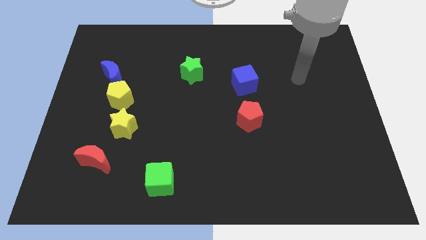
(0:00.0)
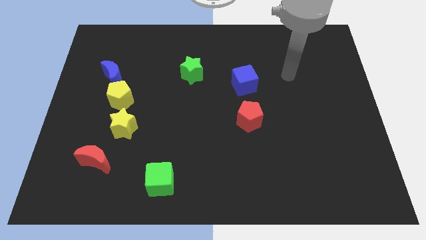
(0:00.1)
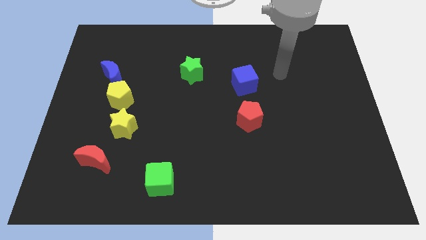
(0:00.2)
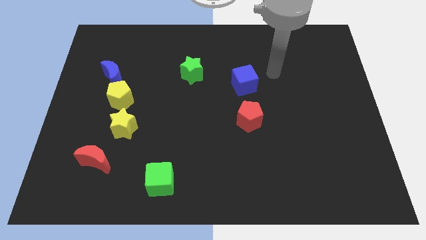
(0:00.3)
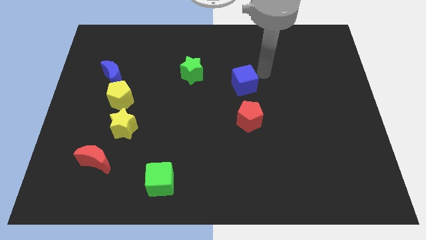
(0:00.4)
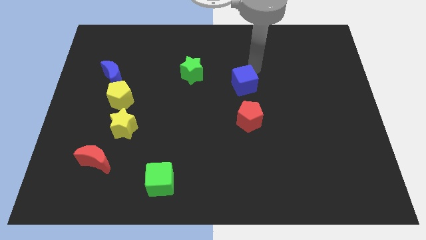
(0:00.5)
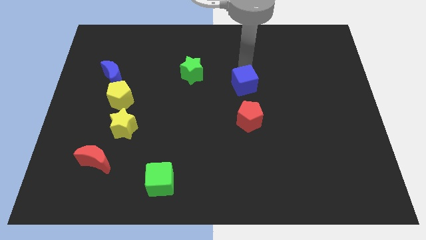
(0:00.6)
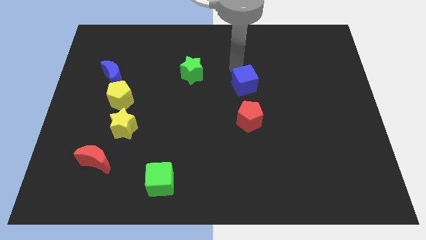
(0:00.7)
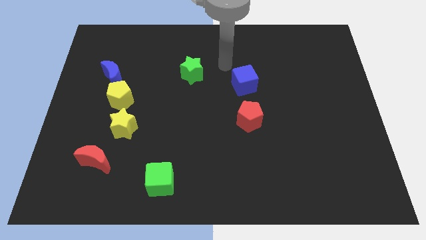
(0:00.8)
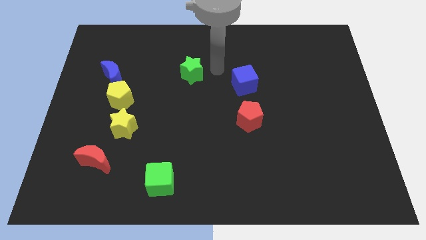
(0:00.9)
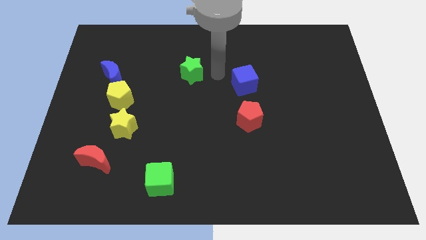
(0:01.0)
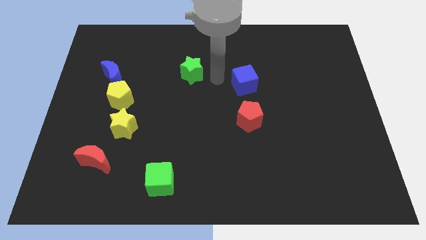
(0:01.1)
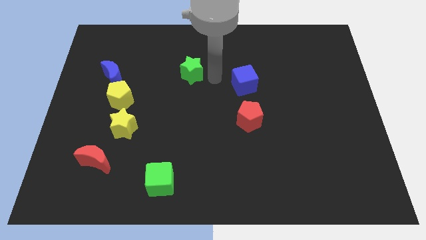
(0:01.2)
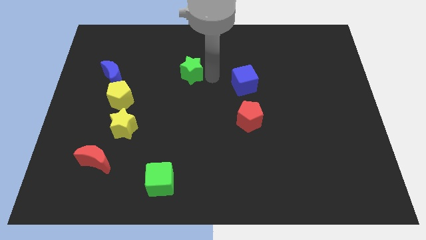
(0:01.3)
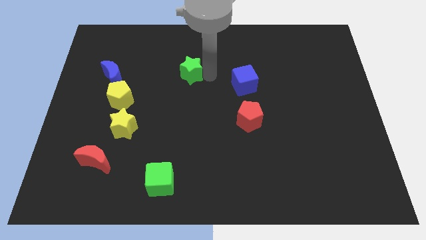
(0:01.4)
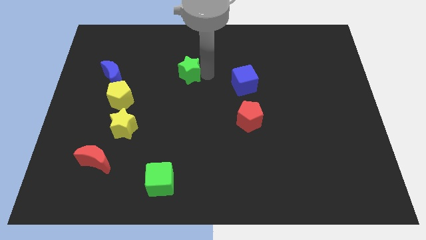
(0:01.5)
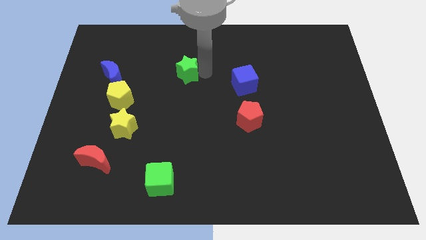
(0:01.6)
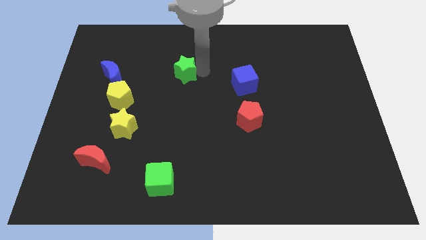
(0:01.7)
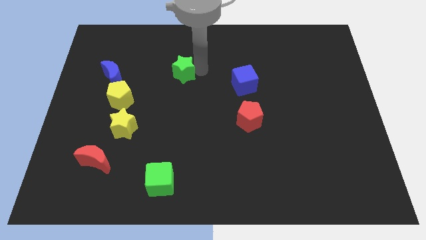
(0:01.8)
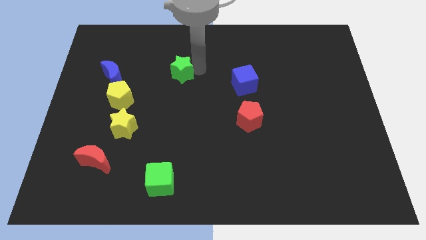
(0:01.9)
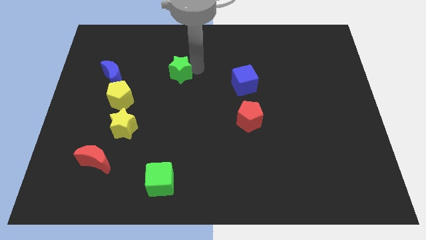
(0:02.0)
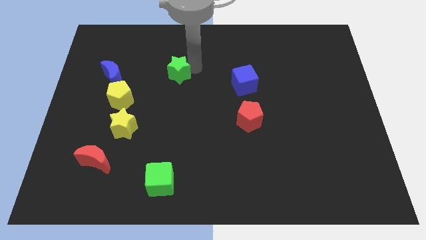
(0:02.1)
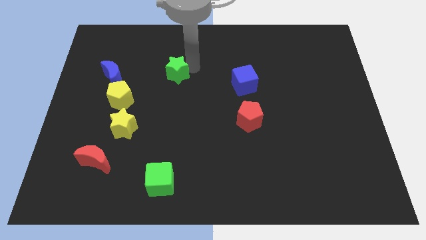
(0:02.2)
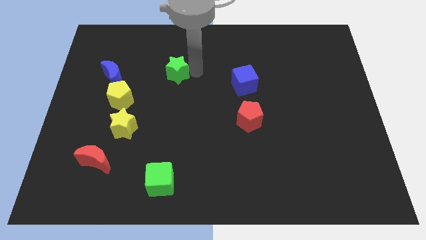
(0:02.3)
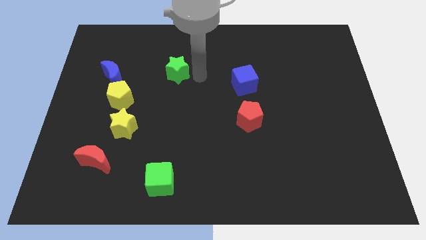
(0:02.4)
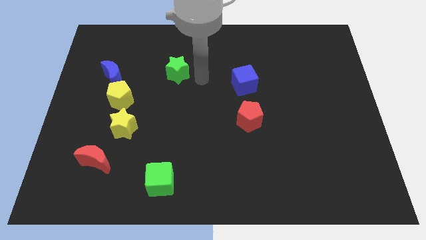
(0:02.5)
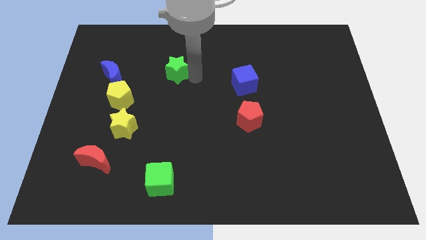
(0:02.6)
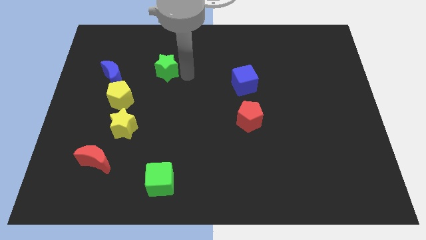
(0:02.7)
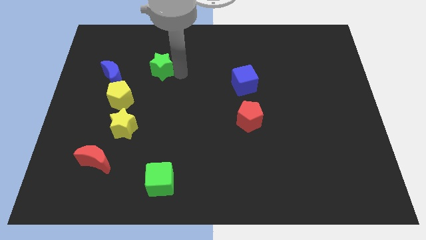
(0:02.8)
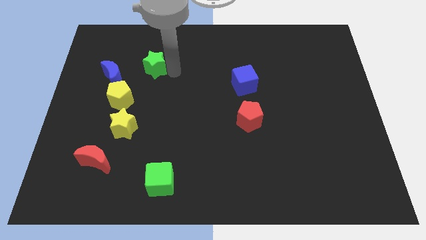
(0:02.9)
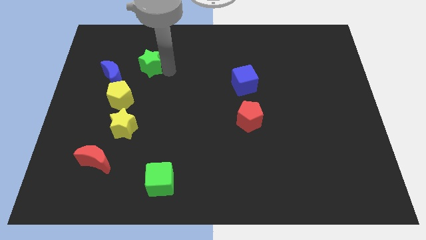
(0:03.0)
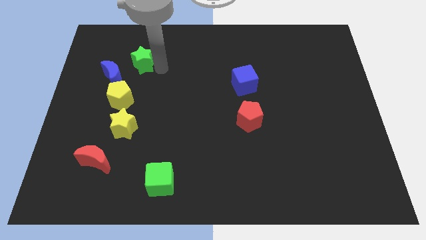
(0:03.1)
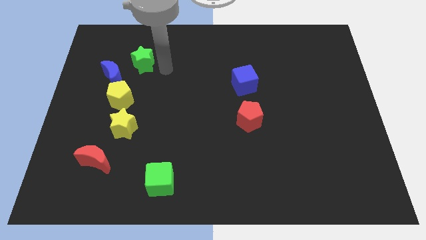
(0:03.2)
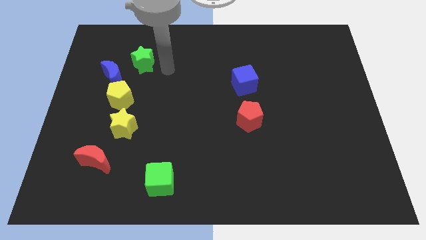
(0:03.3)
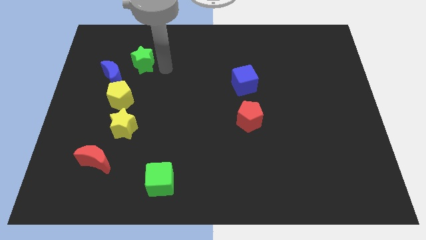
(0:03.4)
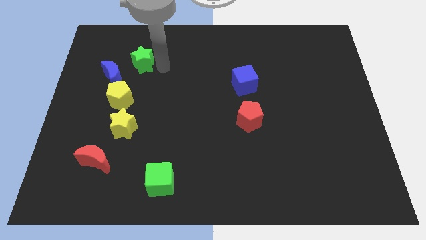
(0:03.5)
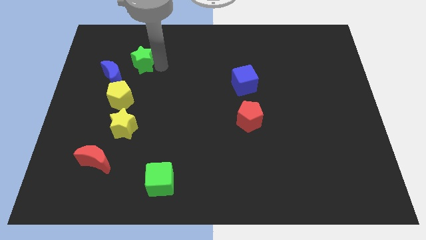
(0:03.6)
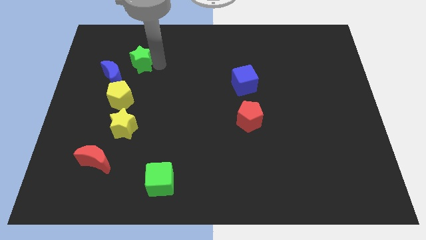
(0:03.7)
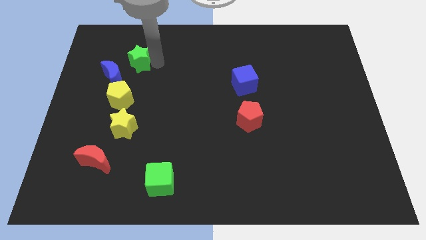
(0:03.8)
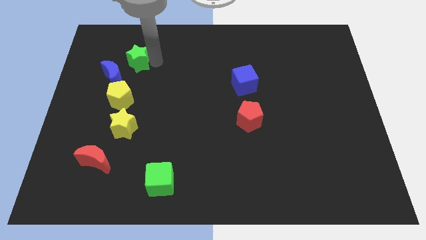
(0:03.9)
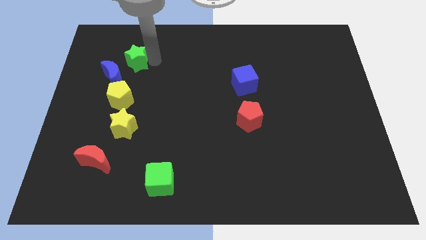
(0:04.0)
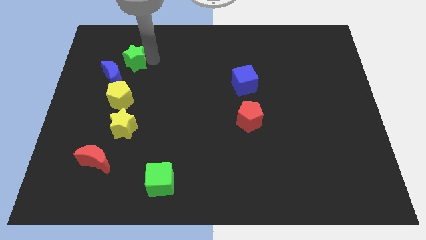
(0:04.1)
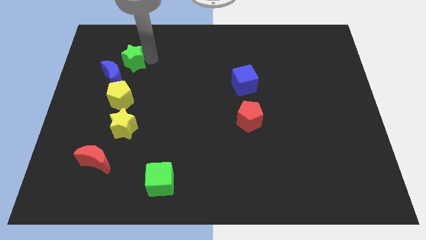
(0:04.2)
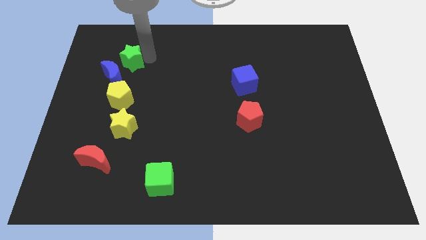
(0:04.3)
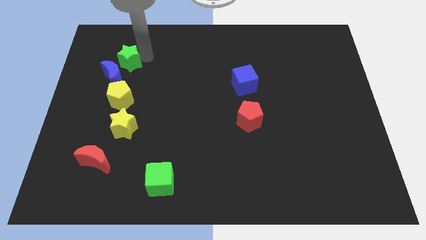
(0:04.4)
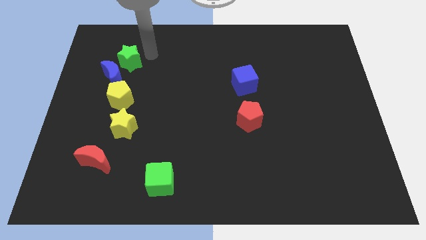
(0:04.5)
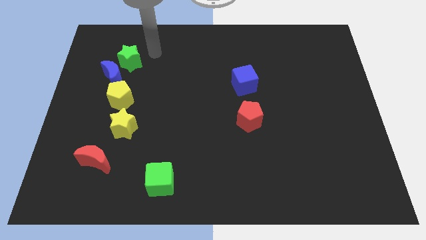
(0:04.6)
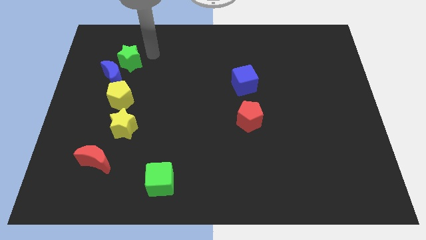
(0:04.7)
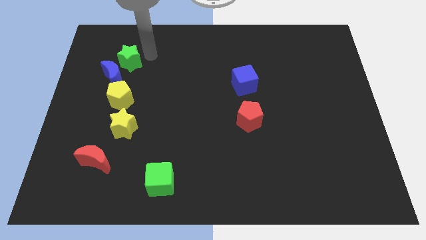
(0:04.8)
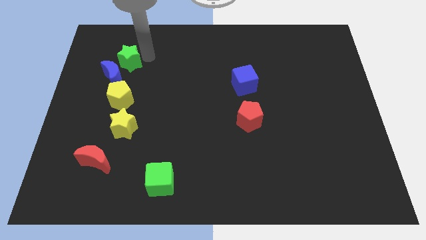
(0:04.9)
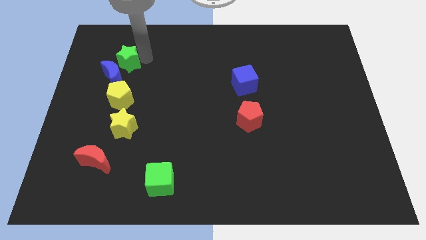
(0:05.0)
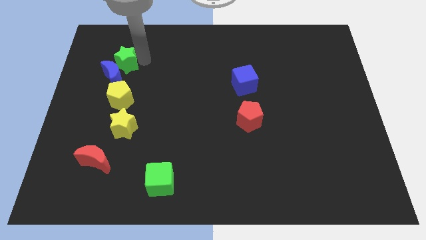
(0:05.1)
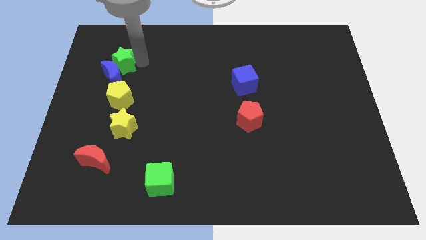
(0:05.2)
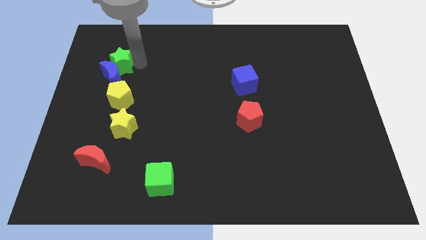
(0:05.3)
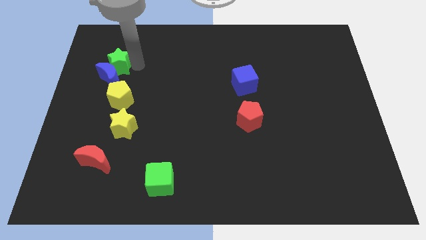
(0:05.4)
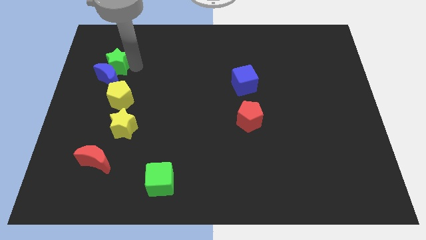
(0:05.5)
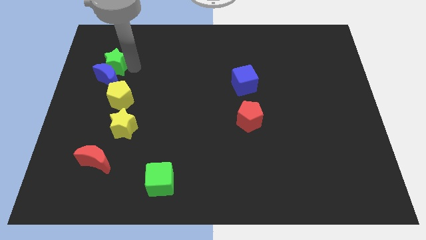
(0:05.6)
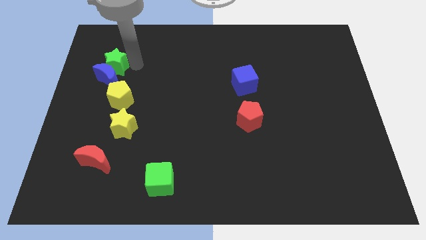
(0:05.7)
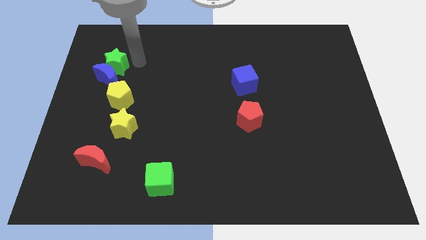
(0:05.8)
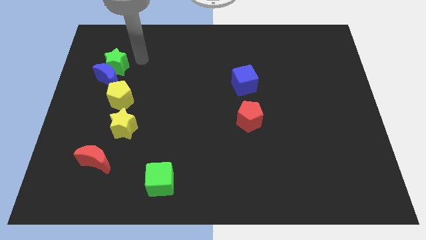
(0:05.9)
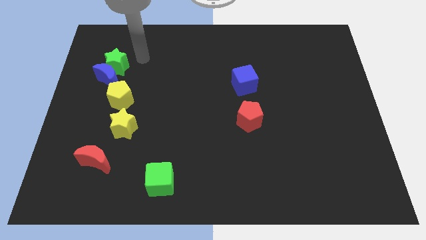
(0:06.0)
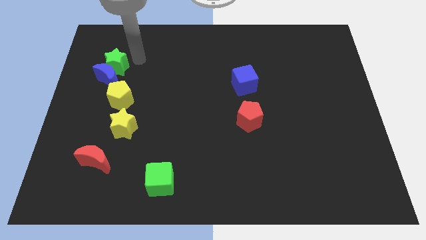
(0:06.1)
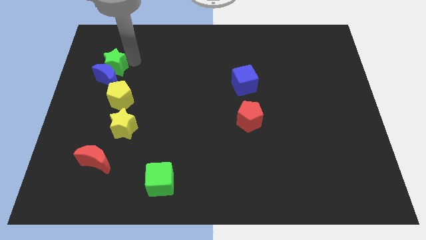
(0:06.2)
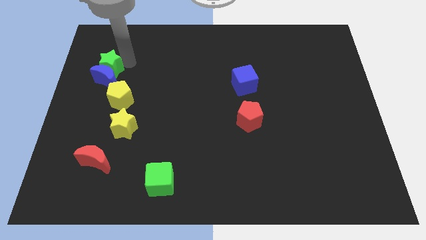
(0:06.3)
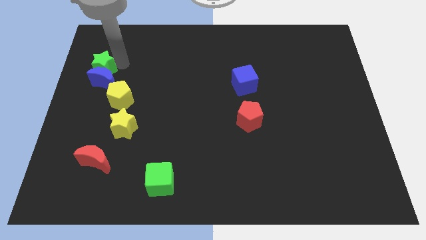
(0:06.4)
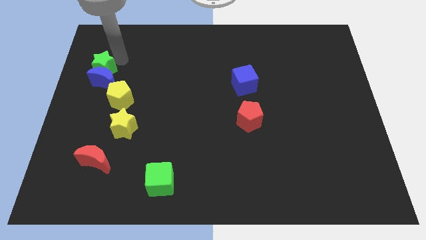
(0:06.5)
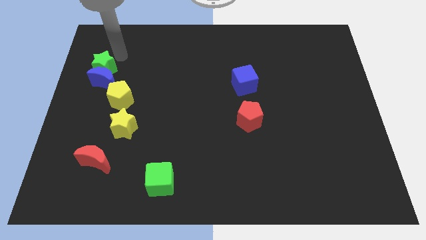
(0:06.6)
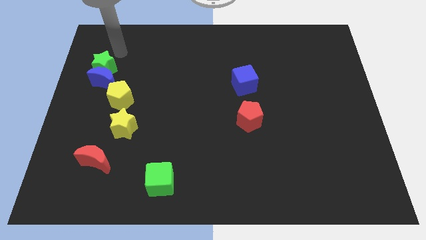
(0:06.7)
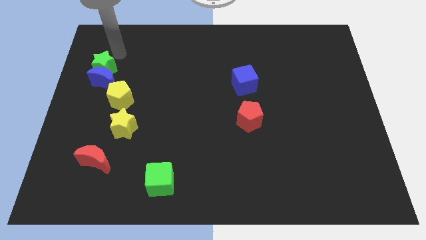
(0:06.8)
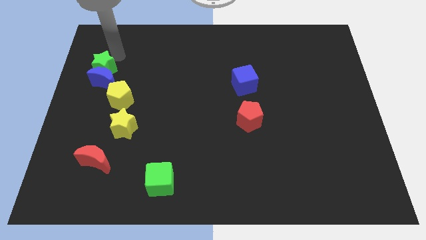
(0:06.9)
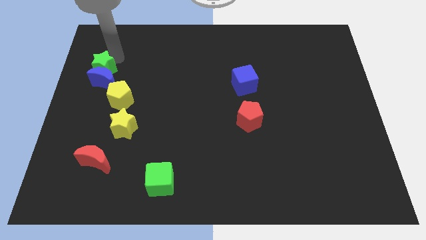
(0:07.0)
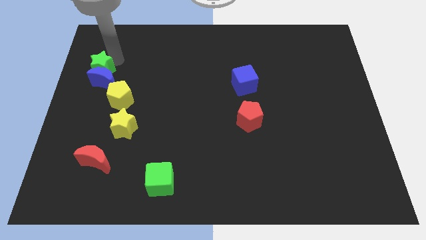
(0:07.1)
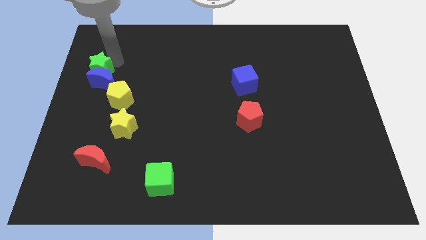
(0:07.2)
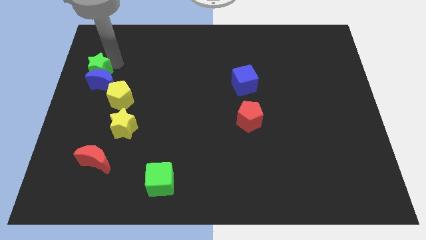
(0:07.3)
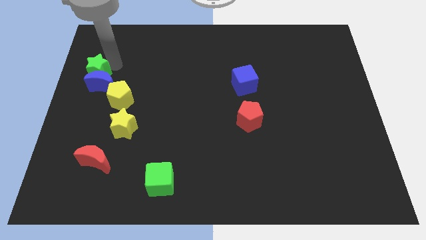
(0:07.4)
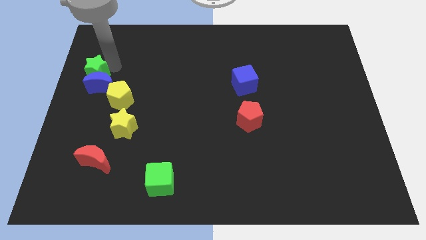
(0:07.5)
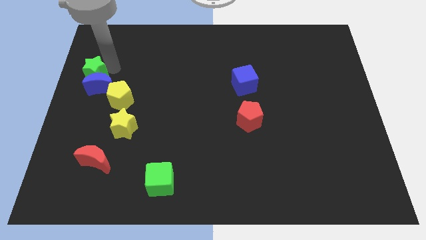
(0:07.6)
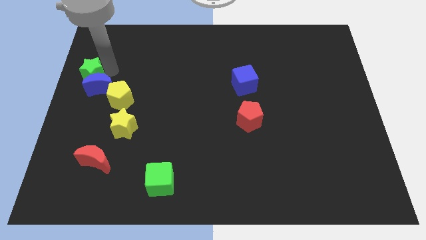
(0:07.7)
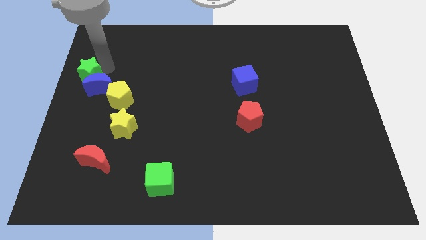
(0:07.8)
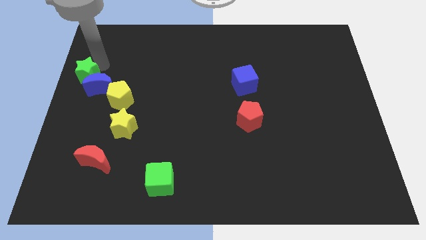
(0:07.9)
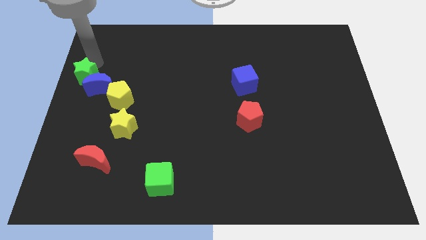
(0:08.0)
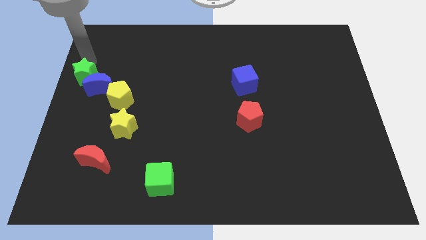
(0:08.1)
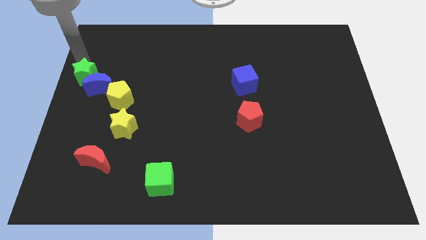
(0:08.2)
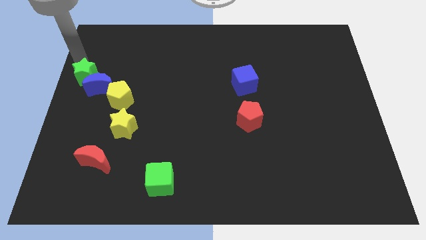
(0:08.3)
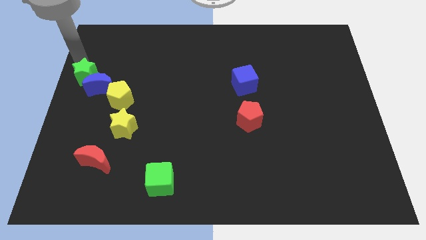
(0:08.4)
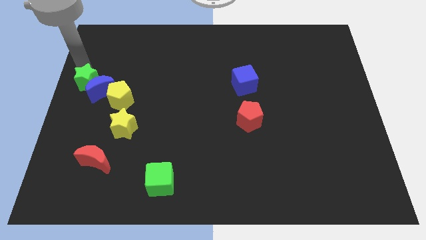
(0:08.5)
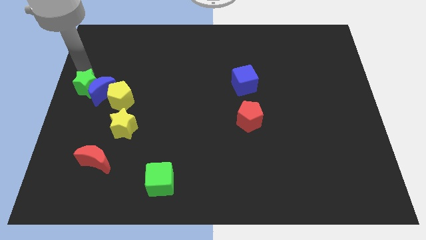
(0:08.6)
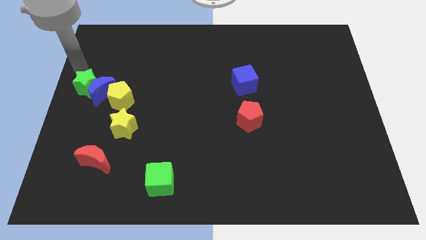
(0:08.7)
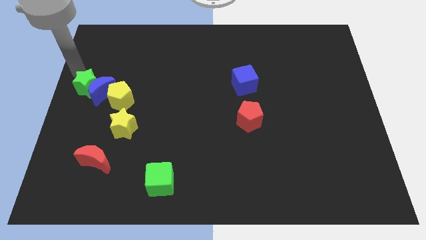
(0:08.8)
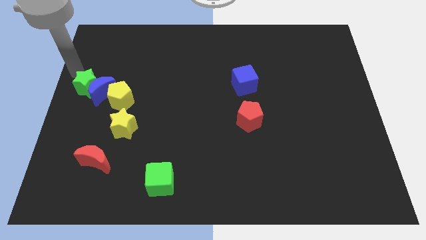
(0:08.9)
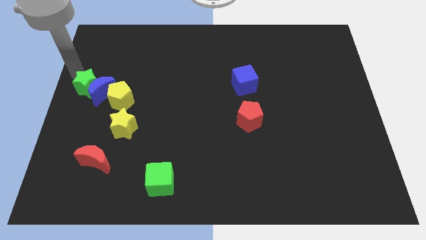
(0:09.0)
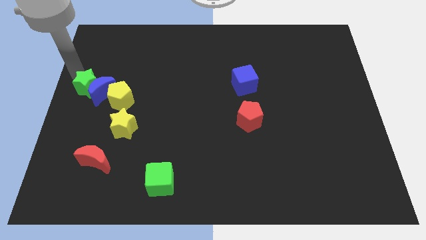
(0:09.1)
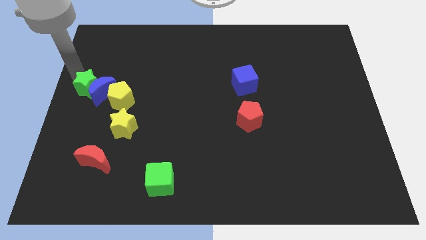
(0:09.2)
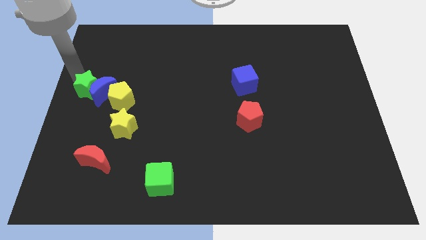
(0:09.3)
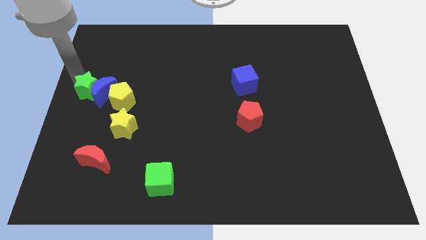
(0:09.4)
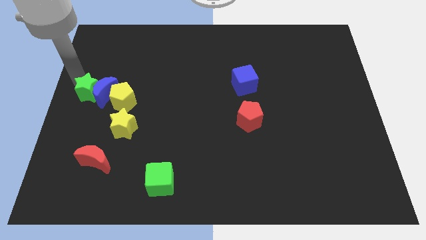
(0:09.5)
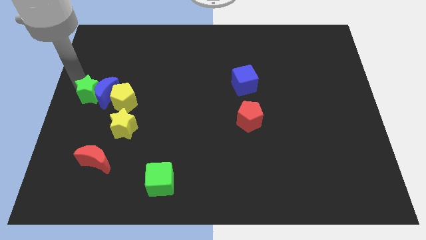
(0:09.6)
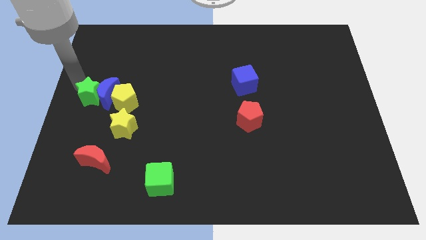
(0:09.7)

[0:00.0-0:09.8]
put the green star to the top left side of the yellow star
